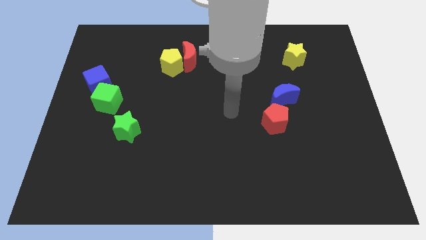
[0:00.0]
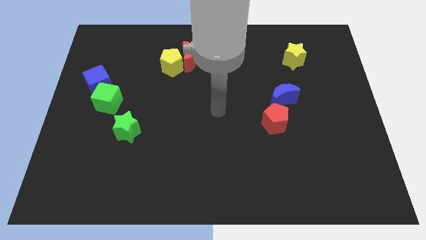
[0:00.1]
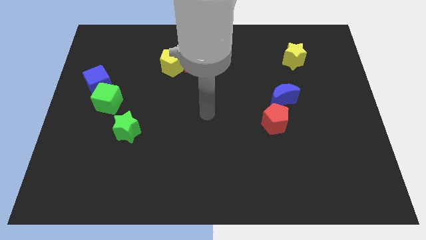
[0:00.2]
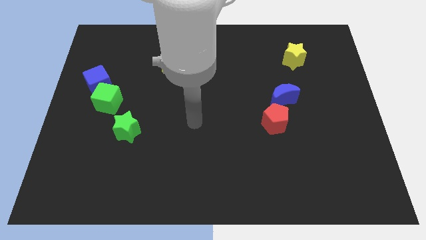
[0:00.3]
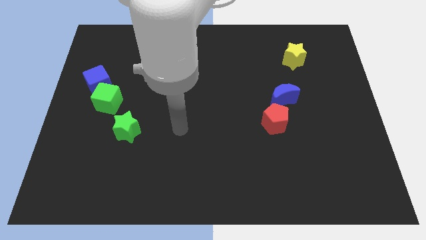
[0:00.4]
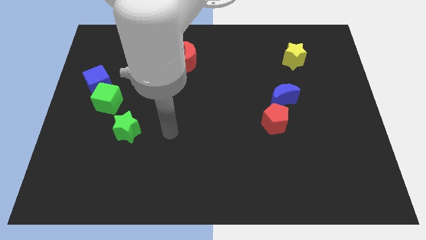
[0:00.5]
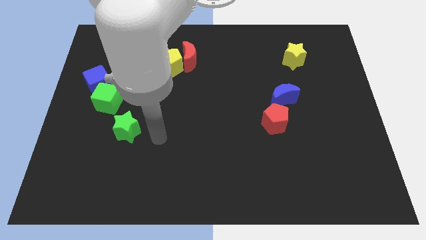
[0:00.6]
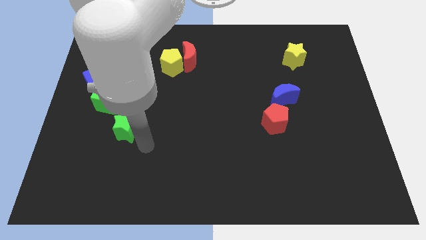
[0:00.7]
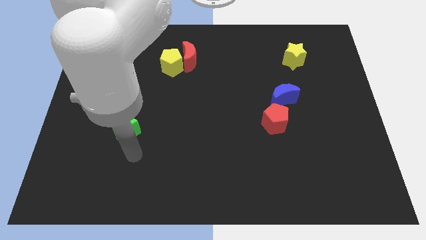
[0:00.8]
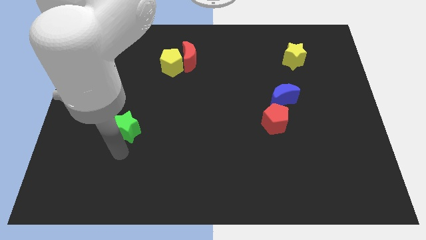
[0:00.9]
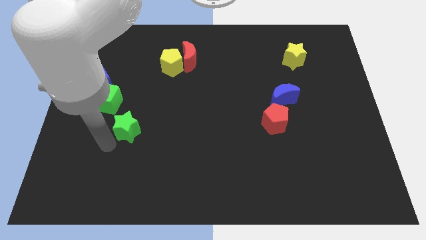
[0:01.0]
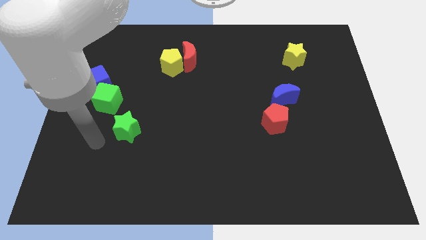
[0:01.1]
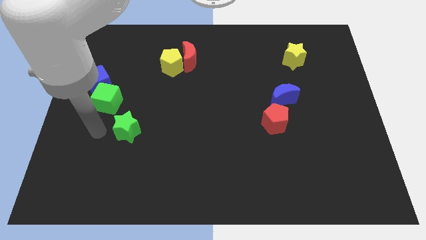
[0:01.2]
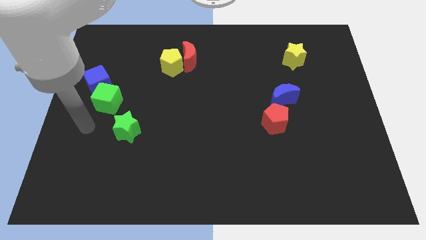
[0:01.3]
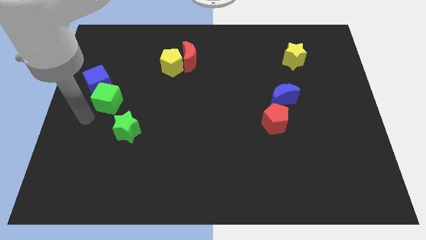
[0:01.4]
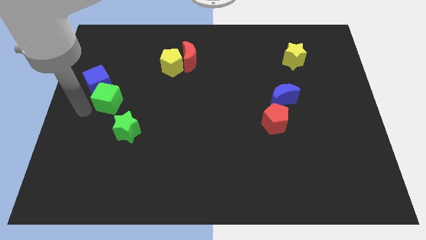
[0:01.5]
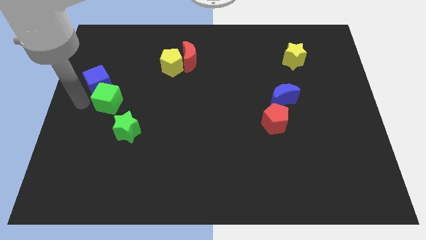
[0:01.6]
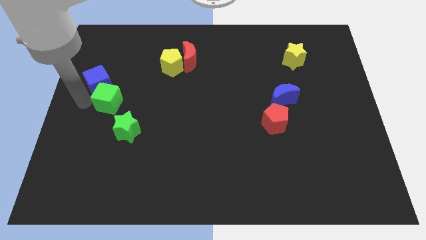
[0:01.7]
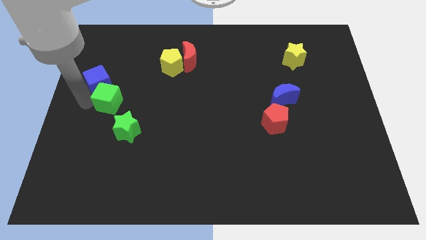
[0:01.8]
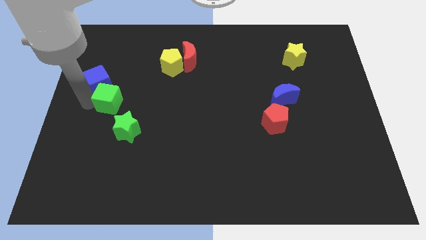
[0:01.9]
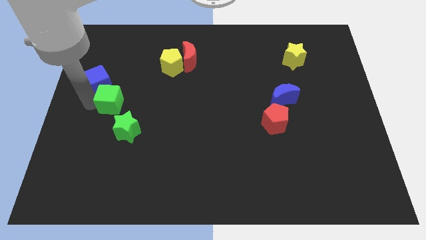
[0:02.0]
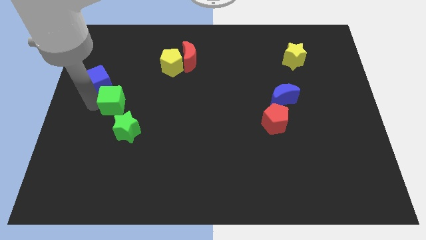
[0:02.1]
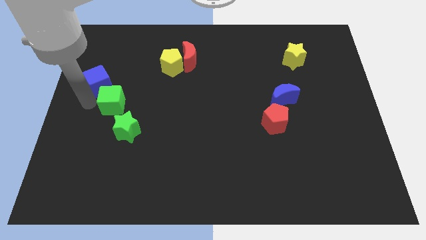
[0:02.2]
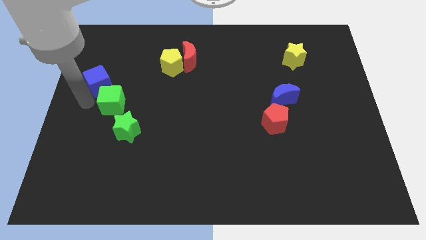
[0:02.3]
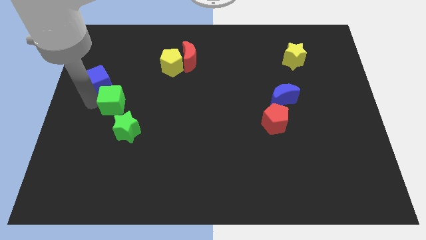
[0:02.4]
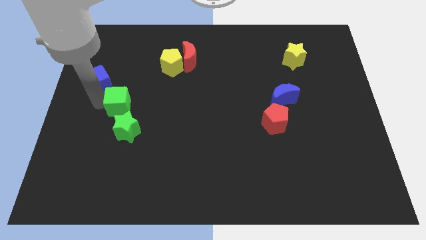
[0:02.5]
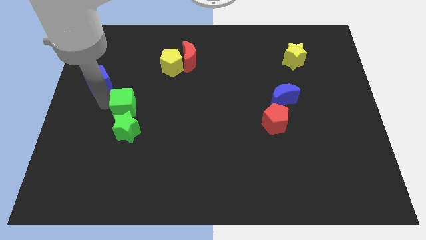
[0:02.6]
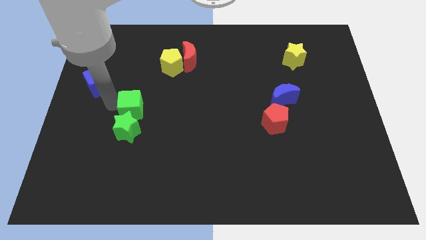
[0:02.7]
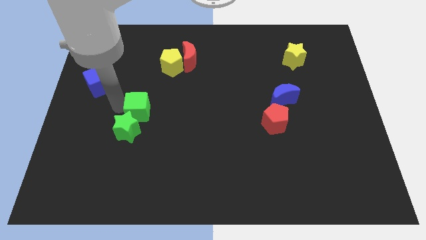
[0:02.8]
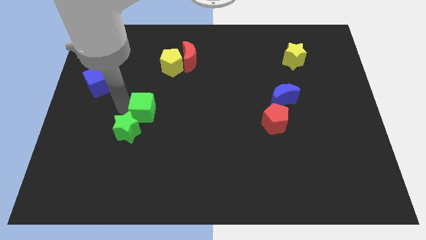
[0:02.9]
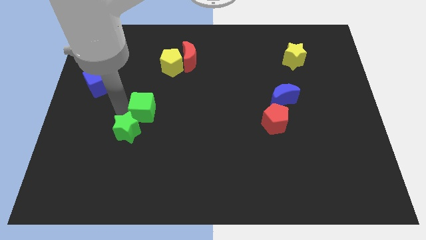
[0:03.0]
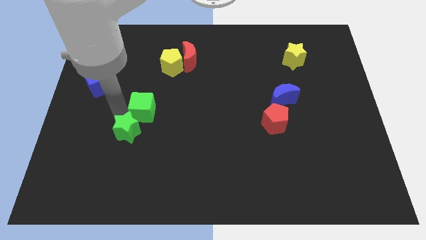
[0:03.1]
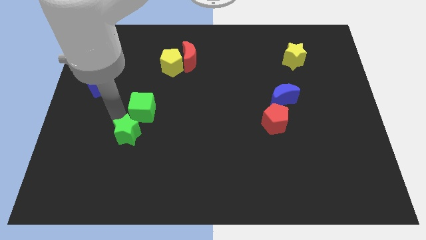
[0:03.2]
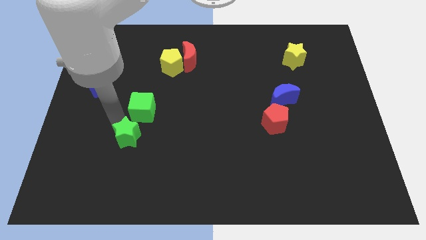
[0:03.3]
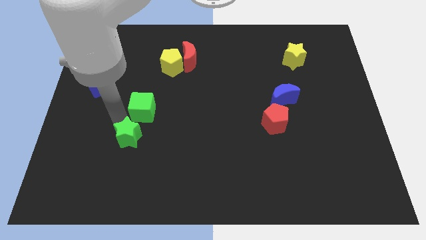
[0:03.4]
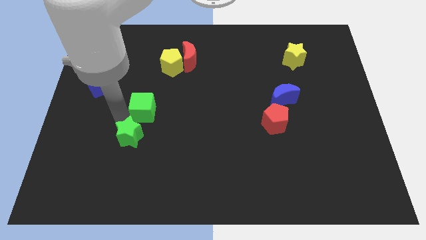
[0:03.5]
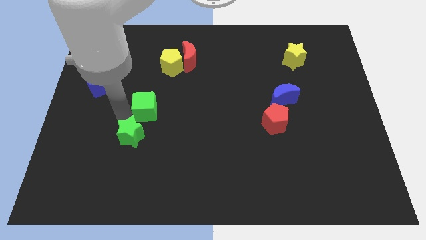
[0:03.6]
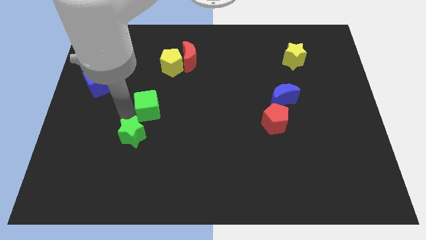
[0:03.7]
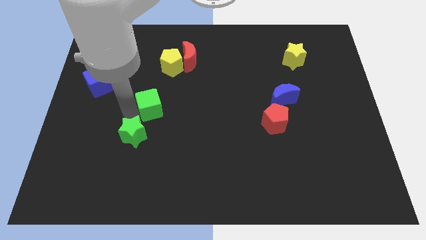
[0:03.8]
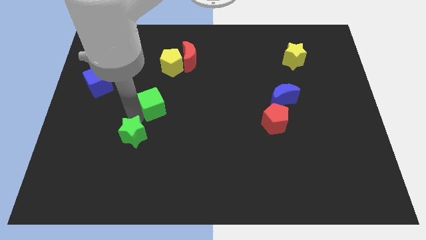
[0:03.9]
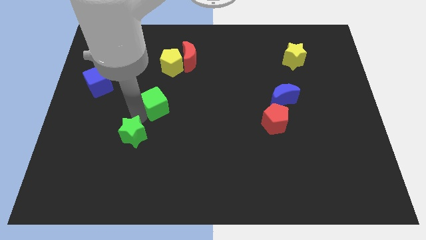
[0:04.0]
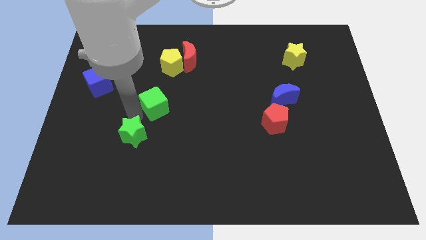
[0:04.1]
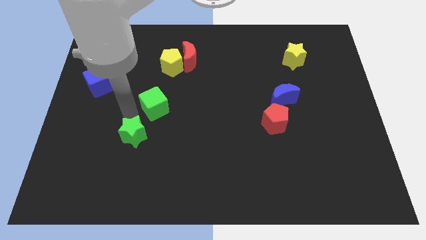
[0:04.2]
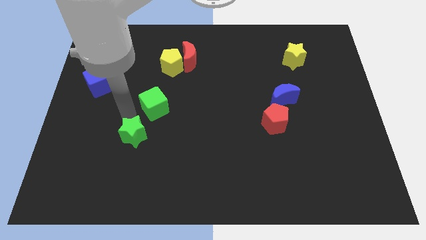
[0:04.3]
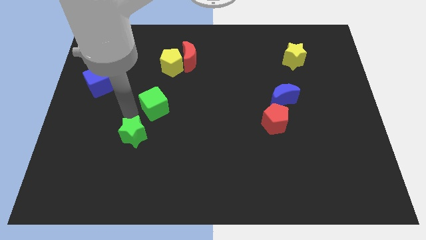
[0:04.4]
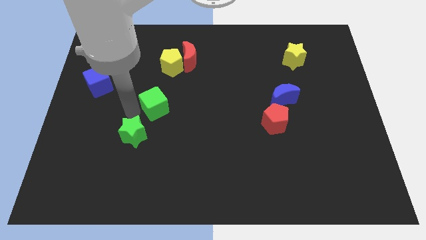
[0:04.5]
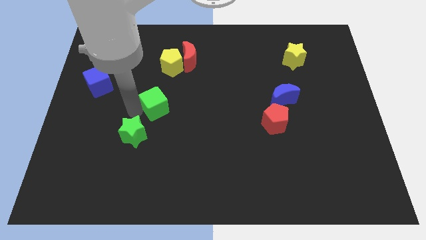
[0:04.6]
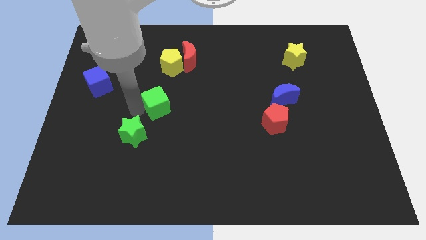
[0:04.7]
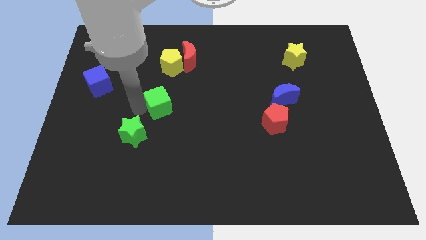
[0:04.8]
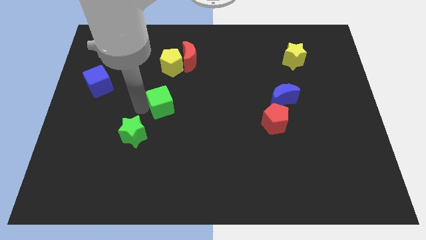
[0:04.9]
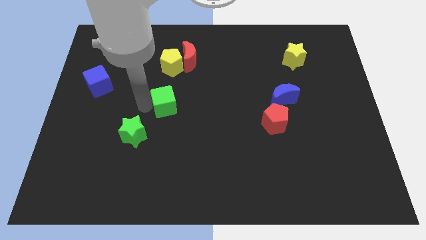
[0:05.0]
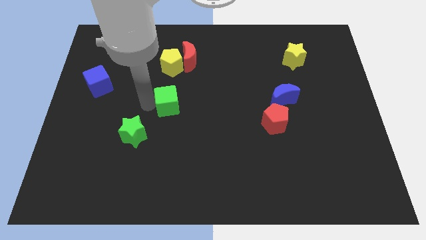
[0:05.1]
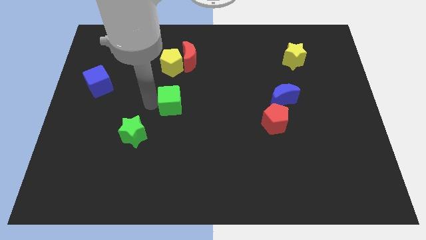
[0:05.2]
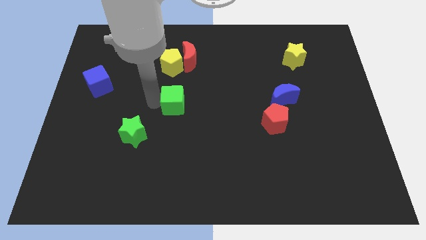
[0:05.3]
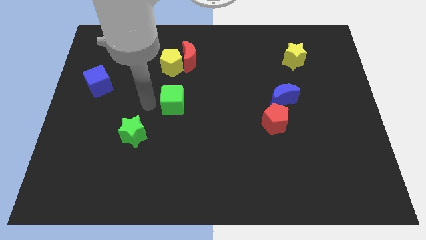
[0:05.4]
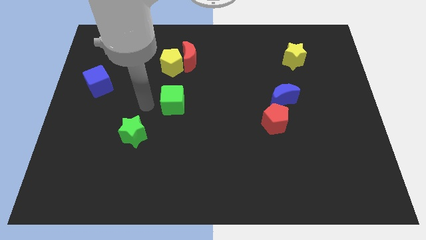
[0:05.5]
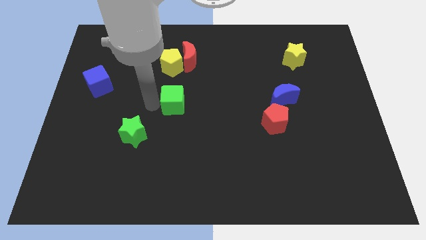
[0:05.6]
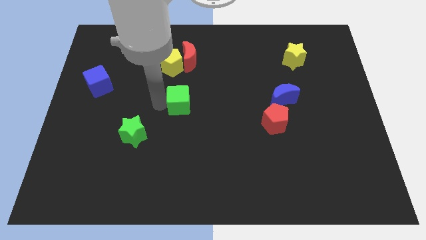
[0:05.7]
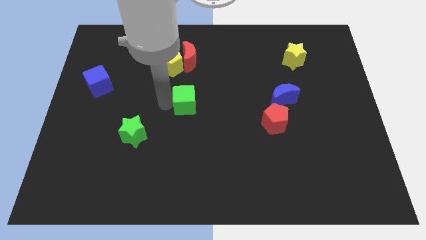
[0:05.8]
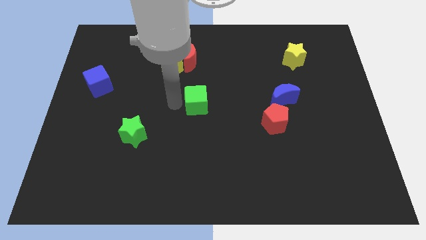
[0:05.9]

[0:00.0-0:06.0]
move the green cube right

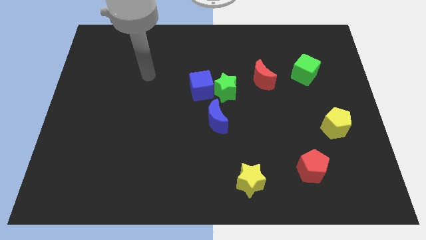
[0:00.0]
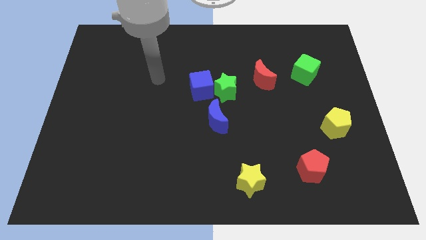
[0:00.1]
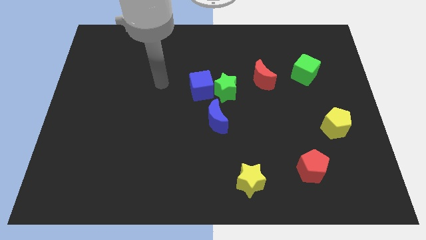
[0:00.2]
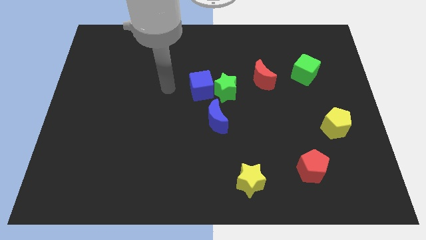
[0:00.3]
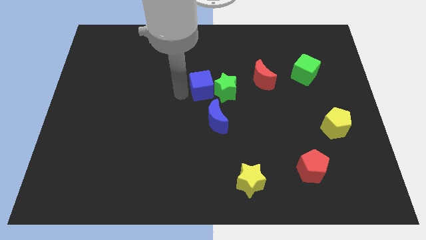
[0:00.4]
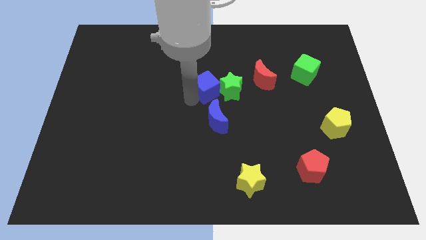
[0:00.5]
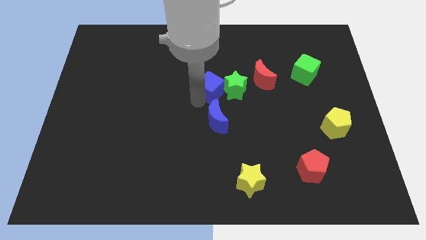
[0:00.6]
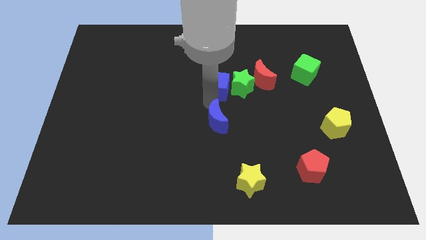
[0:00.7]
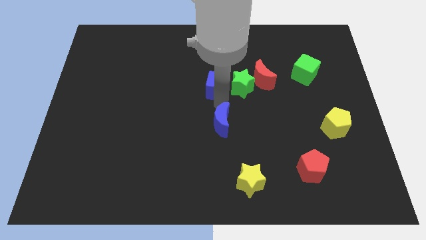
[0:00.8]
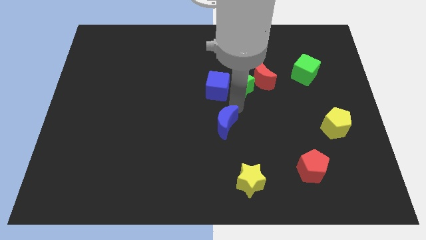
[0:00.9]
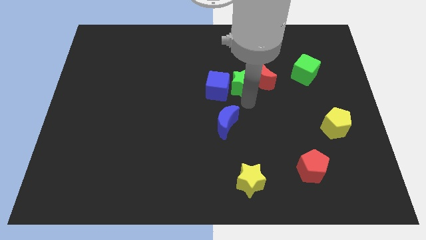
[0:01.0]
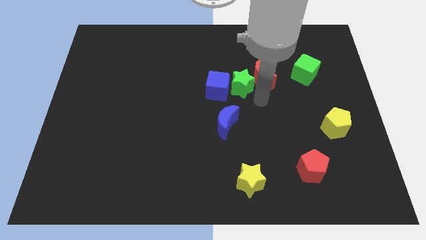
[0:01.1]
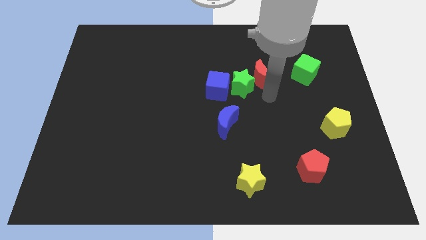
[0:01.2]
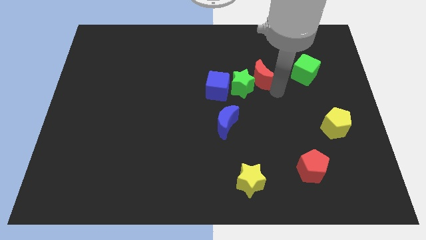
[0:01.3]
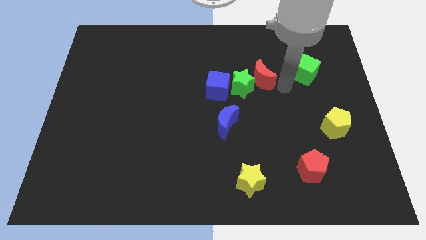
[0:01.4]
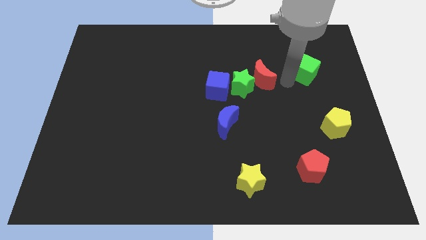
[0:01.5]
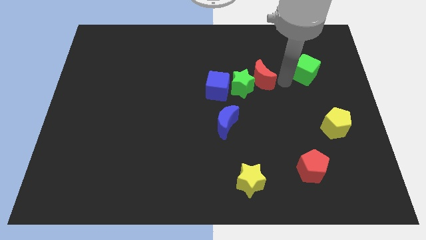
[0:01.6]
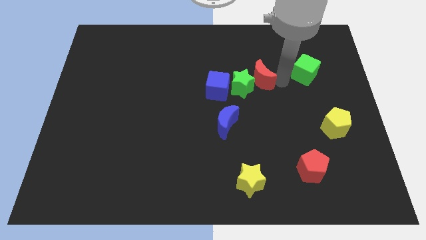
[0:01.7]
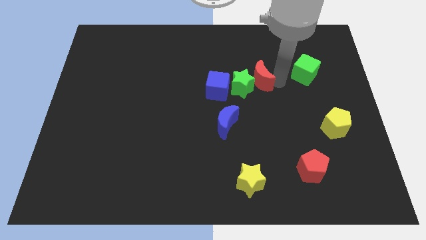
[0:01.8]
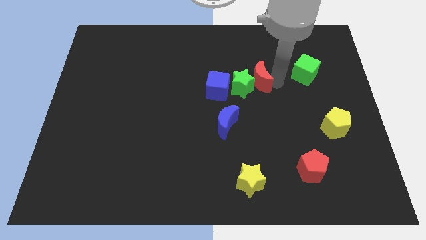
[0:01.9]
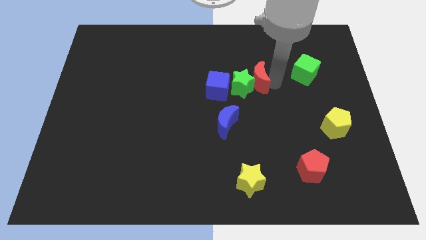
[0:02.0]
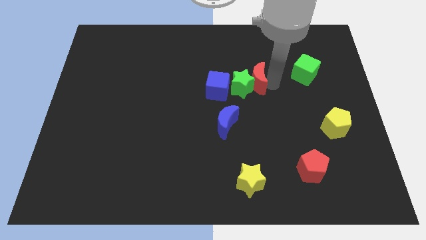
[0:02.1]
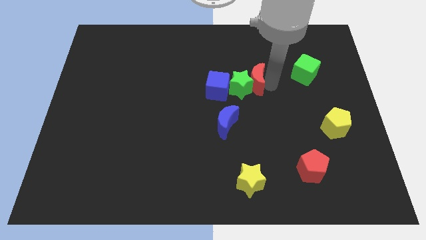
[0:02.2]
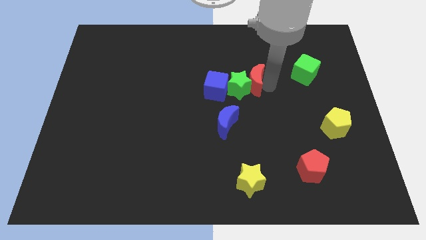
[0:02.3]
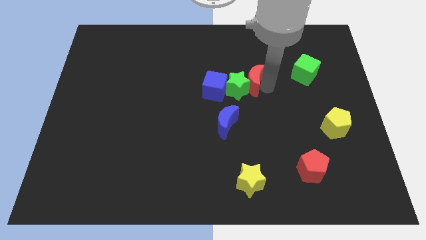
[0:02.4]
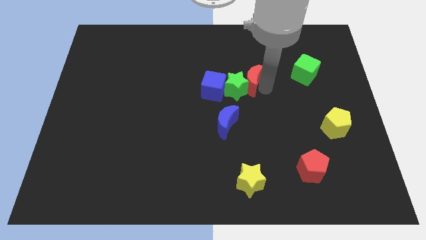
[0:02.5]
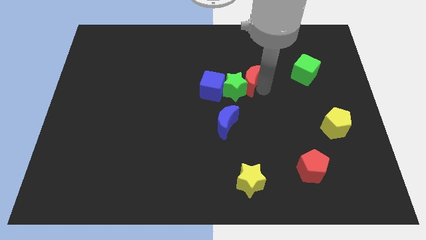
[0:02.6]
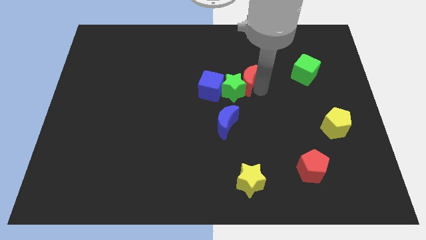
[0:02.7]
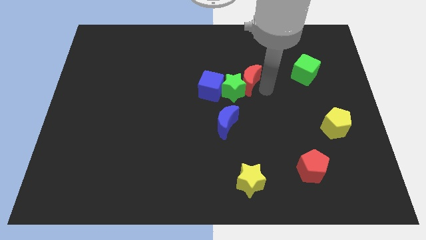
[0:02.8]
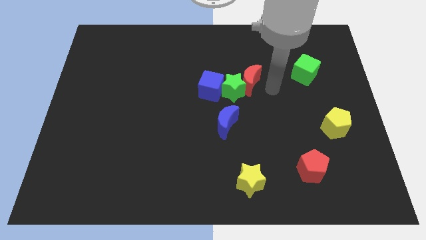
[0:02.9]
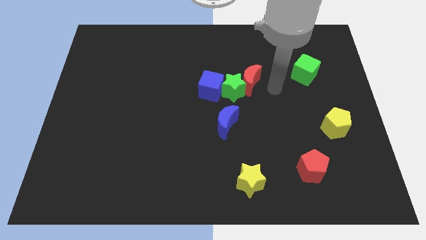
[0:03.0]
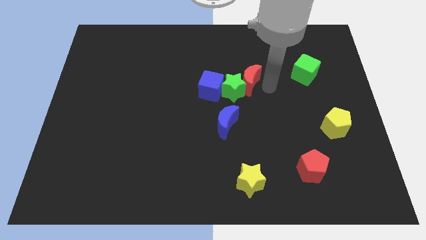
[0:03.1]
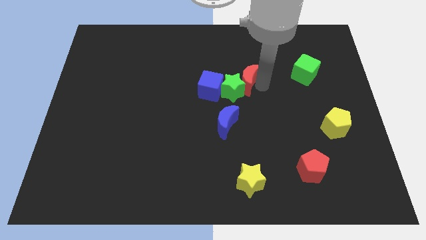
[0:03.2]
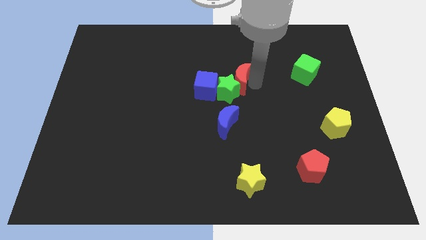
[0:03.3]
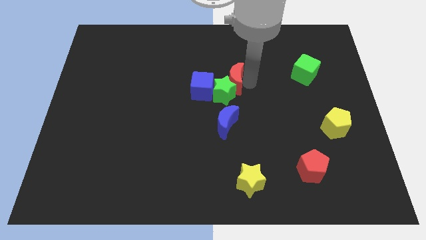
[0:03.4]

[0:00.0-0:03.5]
move the red moon to the left a little bit
